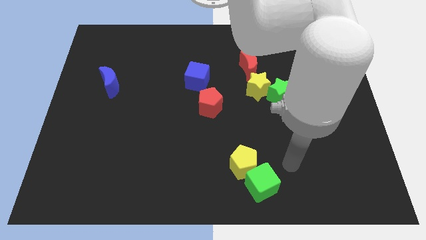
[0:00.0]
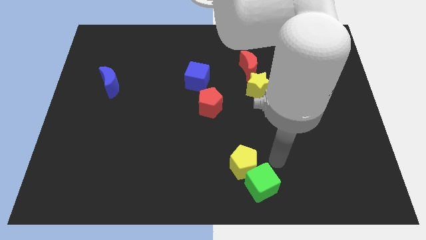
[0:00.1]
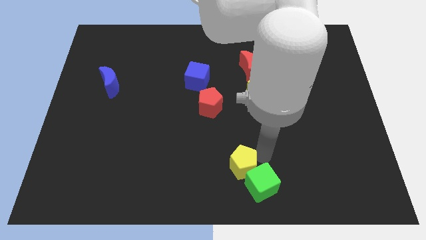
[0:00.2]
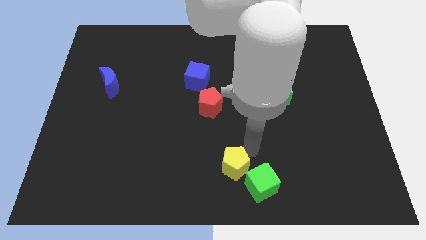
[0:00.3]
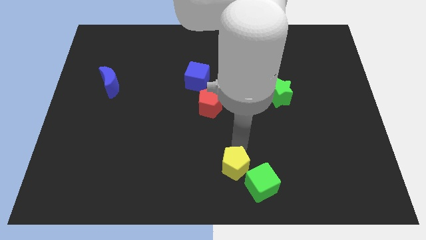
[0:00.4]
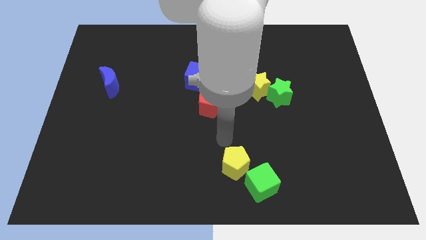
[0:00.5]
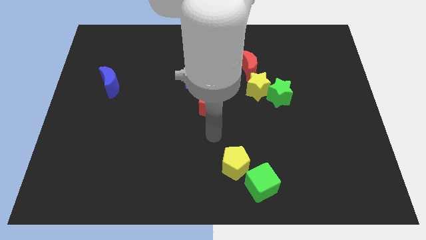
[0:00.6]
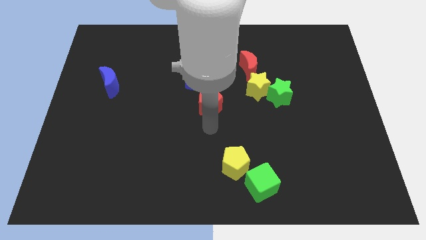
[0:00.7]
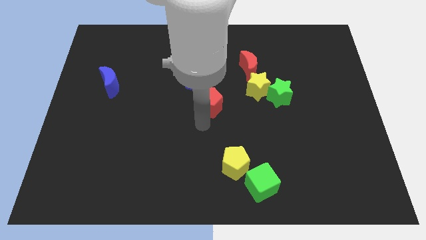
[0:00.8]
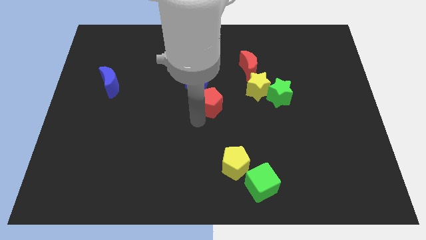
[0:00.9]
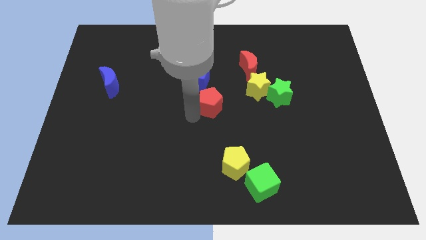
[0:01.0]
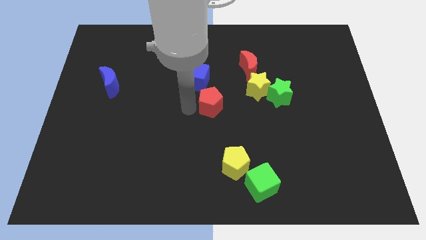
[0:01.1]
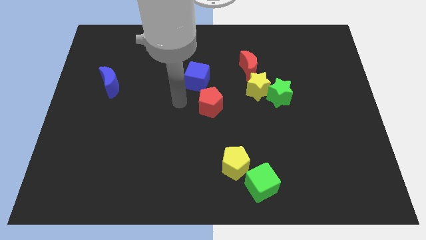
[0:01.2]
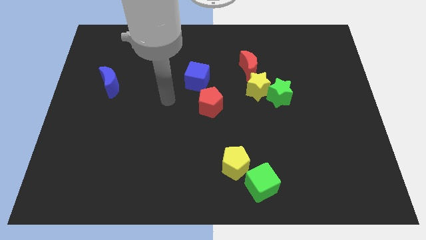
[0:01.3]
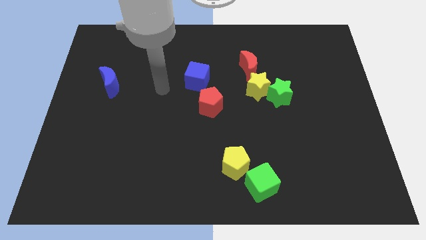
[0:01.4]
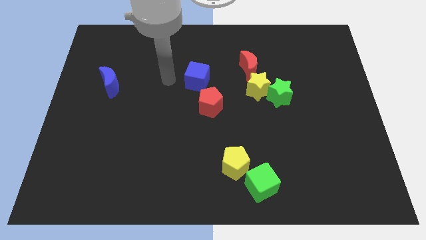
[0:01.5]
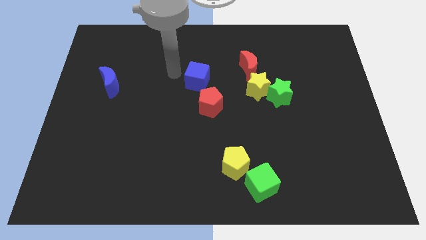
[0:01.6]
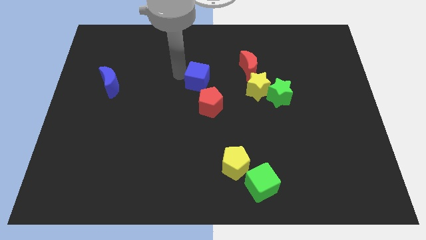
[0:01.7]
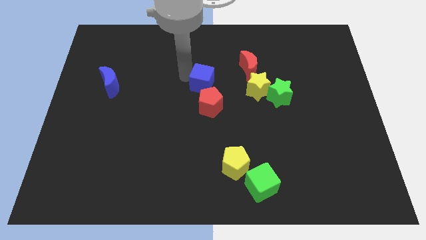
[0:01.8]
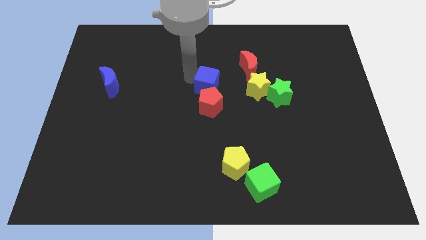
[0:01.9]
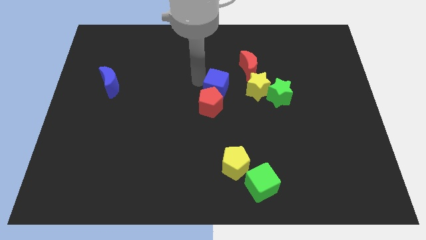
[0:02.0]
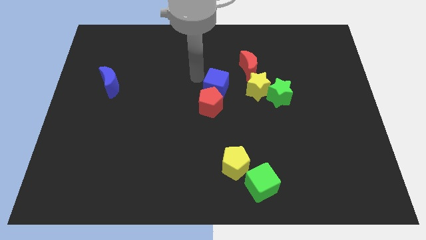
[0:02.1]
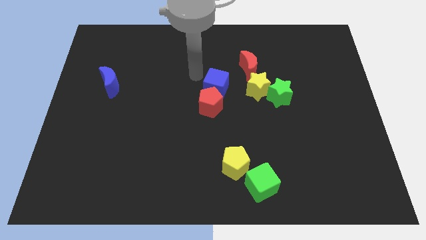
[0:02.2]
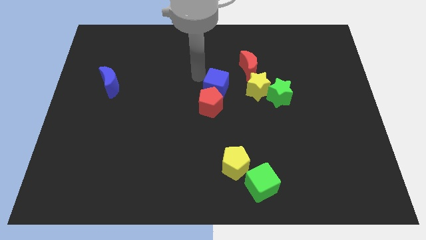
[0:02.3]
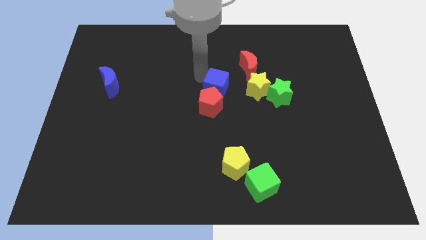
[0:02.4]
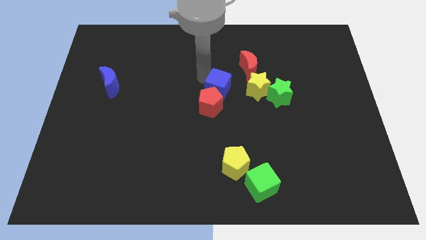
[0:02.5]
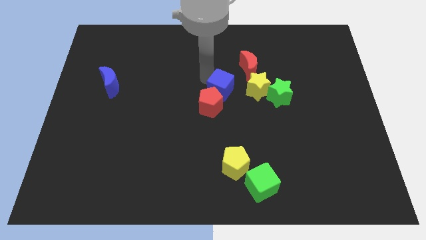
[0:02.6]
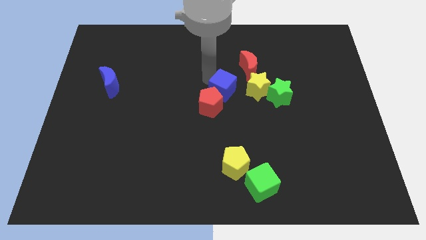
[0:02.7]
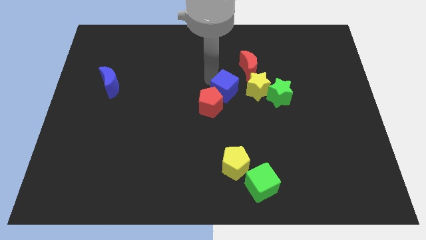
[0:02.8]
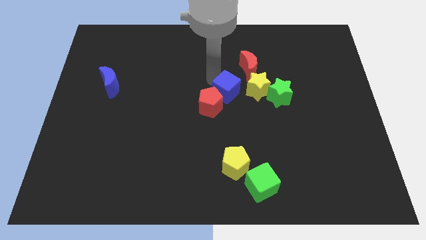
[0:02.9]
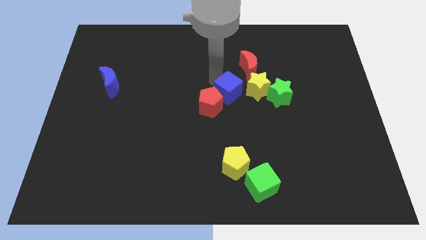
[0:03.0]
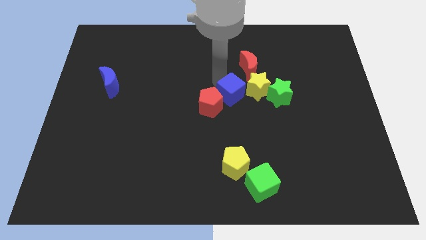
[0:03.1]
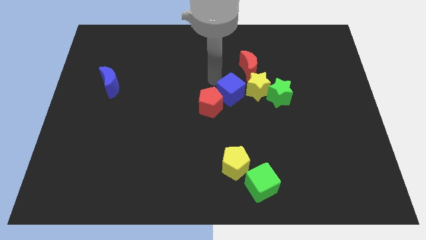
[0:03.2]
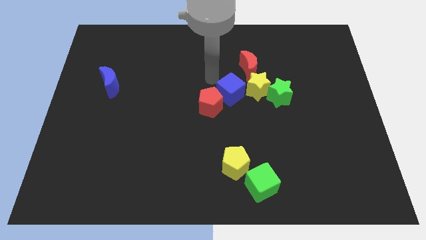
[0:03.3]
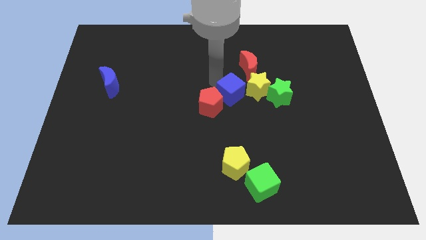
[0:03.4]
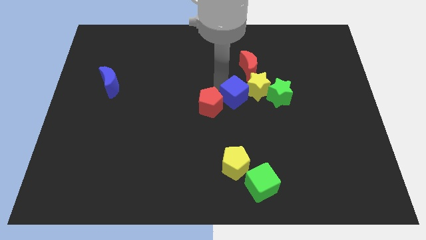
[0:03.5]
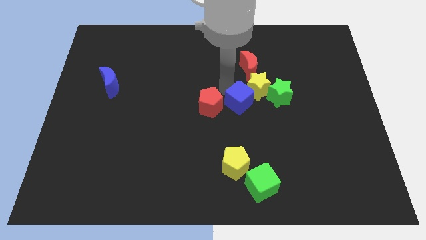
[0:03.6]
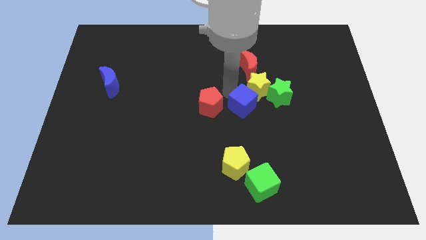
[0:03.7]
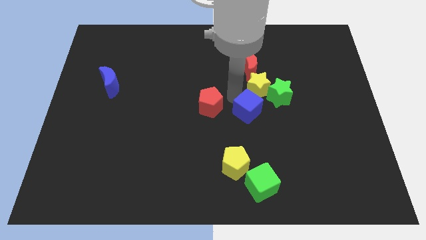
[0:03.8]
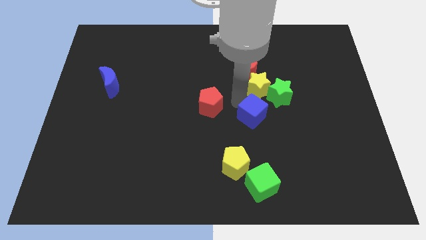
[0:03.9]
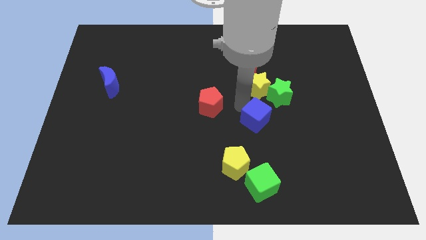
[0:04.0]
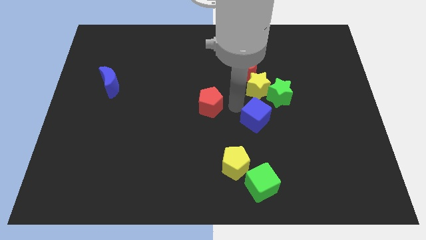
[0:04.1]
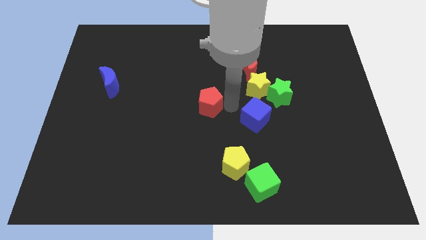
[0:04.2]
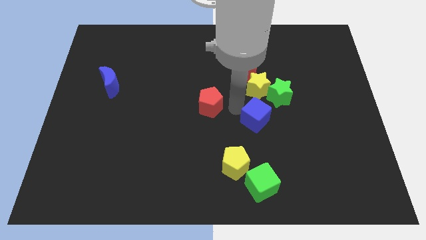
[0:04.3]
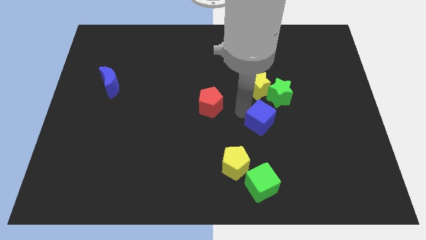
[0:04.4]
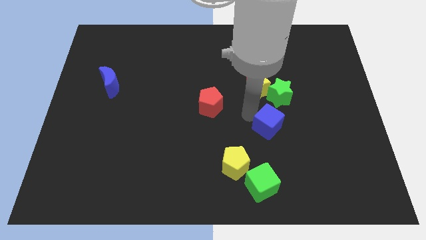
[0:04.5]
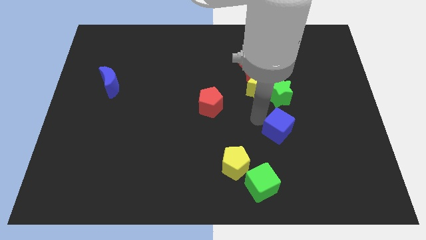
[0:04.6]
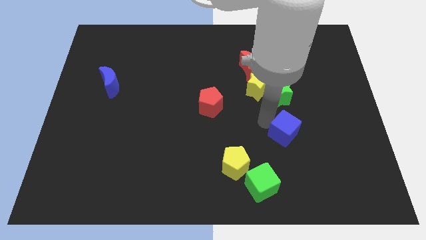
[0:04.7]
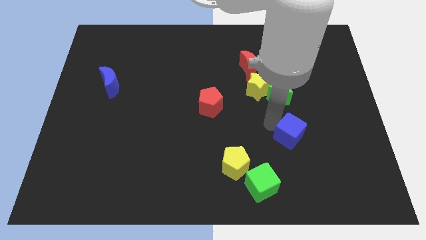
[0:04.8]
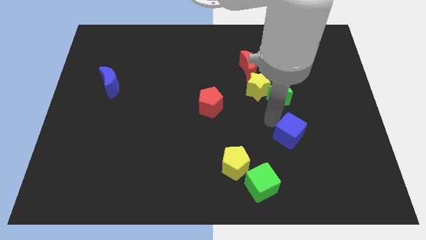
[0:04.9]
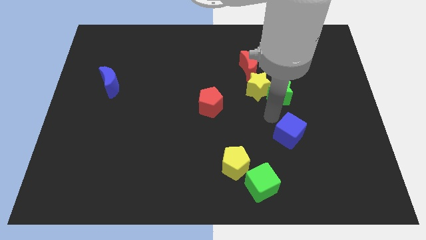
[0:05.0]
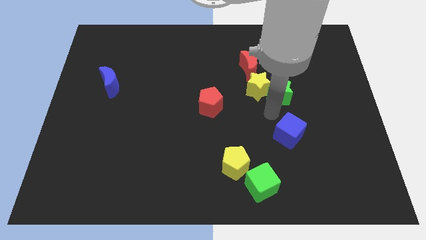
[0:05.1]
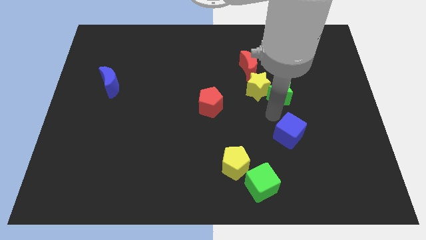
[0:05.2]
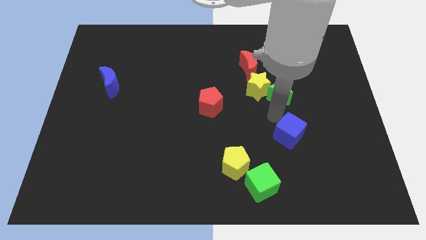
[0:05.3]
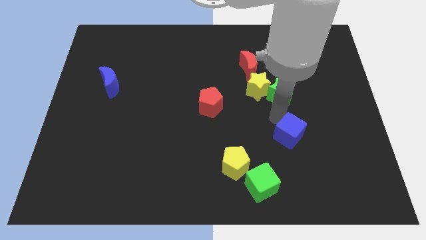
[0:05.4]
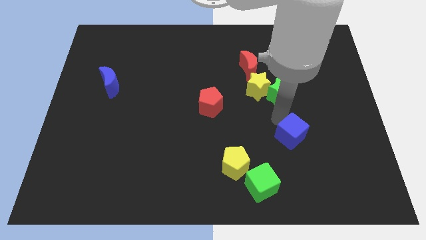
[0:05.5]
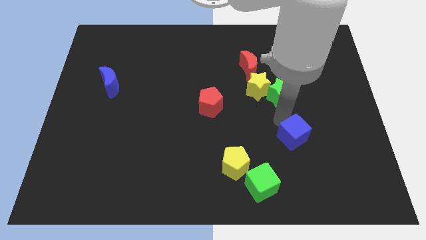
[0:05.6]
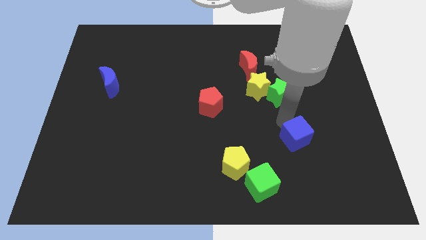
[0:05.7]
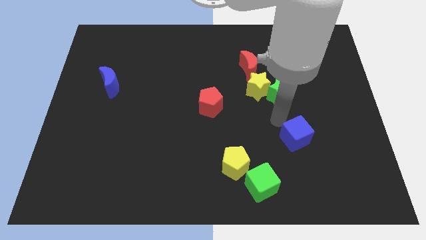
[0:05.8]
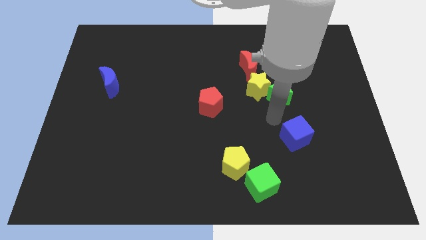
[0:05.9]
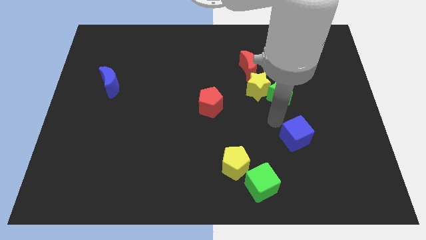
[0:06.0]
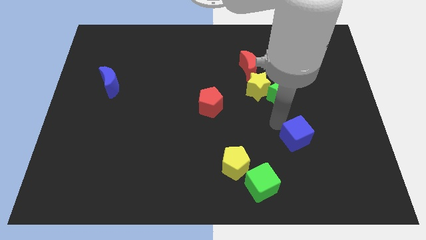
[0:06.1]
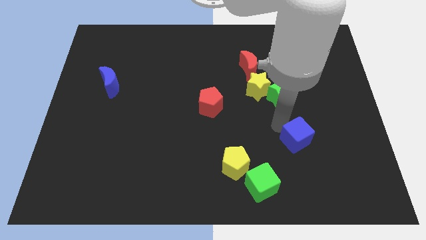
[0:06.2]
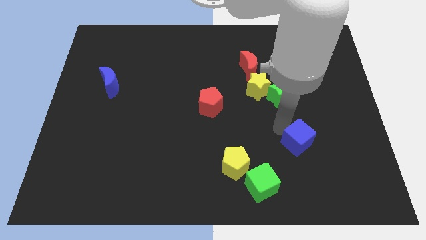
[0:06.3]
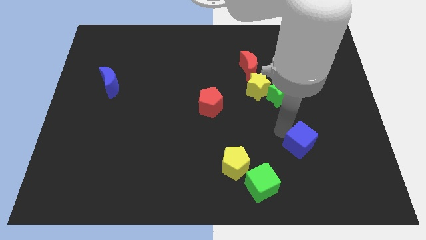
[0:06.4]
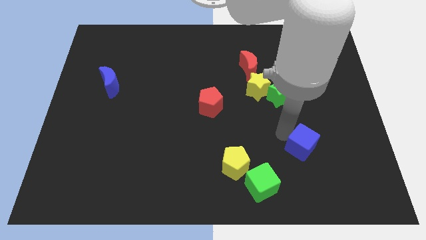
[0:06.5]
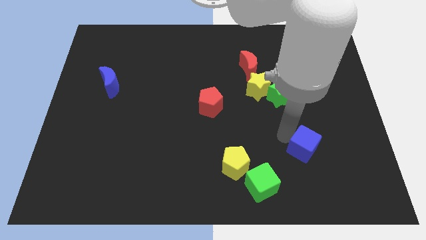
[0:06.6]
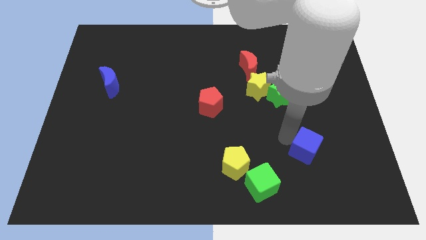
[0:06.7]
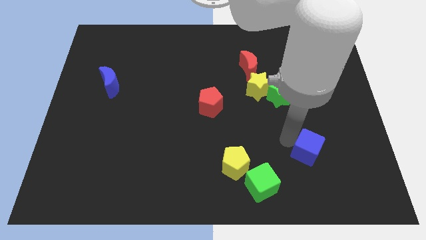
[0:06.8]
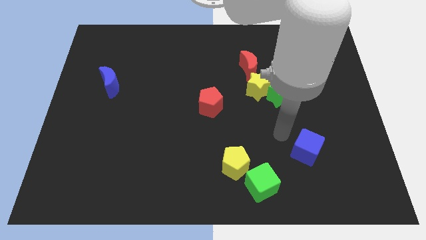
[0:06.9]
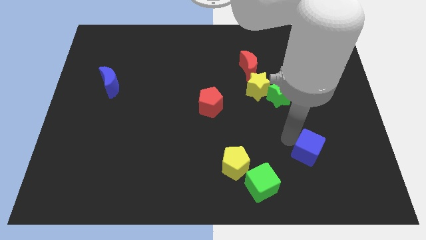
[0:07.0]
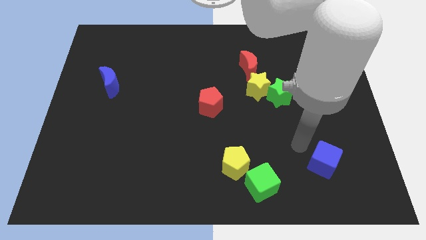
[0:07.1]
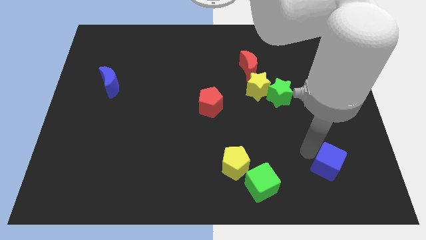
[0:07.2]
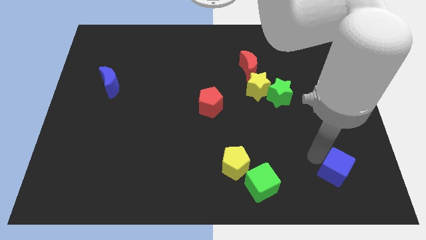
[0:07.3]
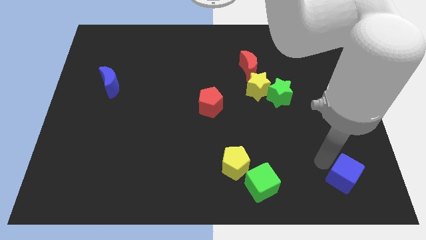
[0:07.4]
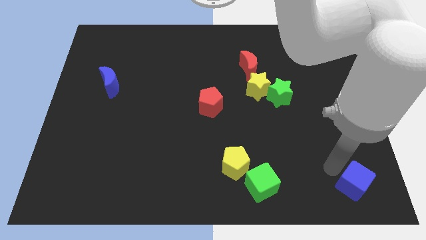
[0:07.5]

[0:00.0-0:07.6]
move the blue cube to the bottom right of the board
